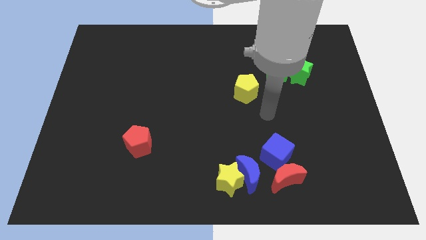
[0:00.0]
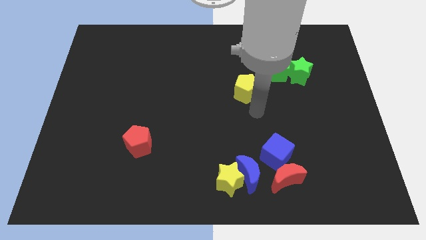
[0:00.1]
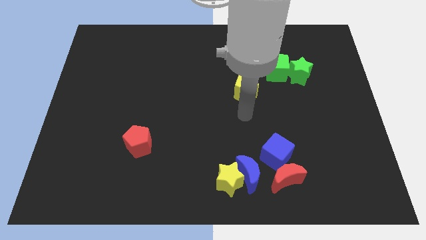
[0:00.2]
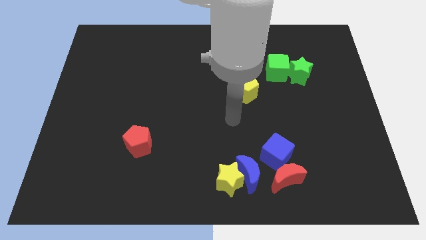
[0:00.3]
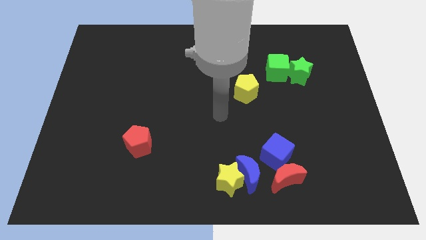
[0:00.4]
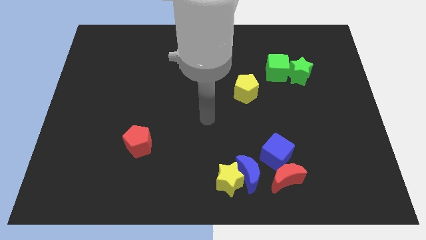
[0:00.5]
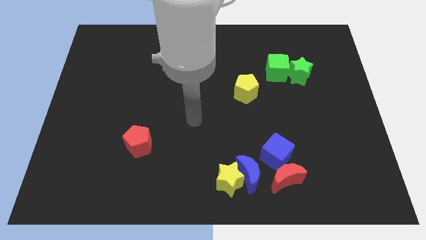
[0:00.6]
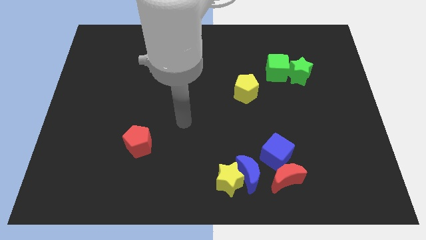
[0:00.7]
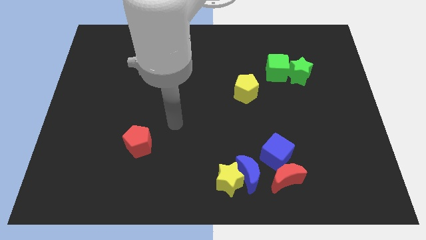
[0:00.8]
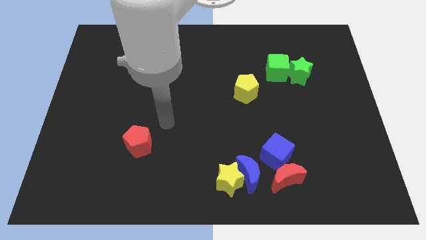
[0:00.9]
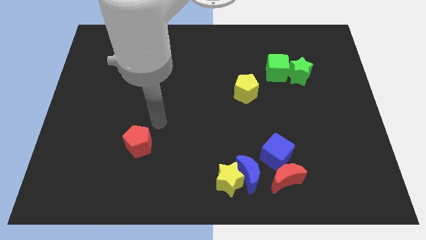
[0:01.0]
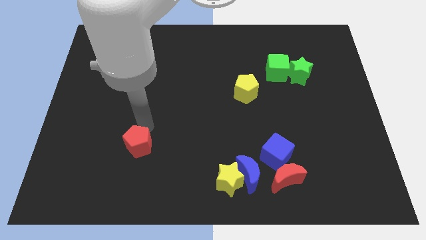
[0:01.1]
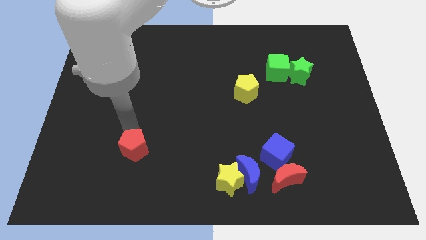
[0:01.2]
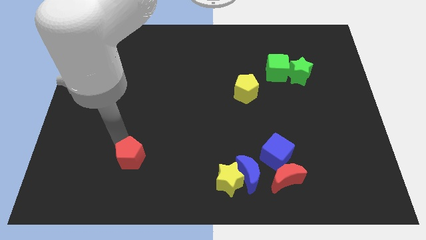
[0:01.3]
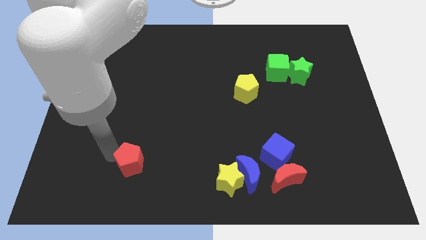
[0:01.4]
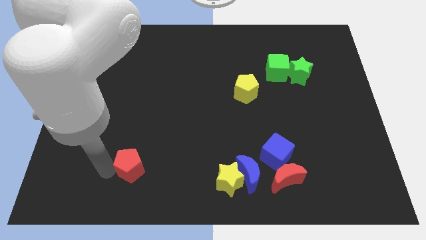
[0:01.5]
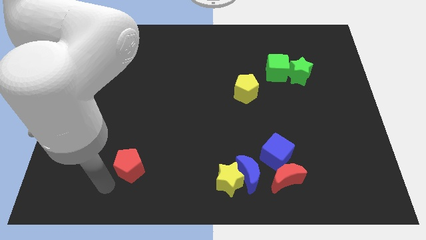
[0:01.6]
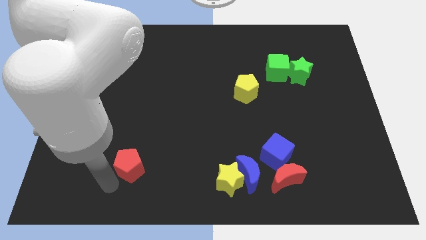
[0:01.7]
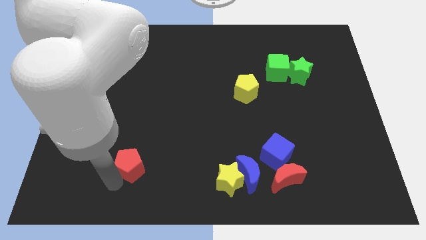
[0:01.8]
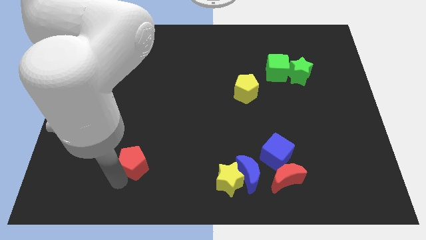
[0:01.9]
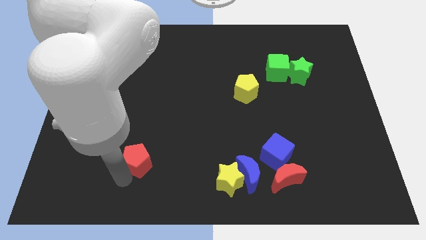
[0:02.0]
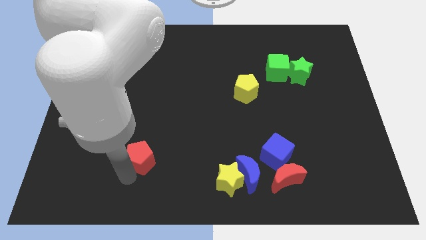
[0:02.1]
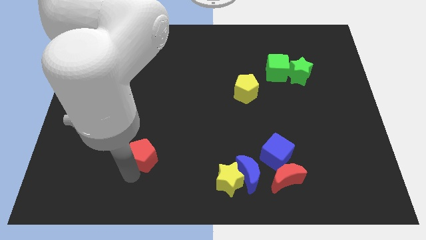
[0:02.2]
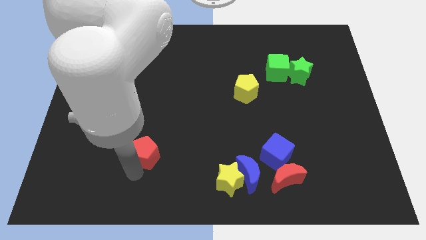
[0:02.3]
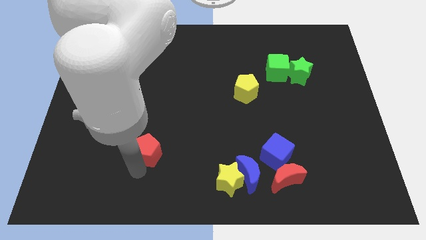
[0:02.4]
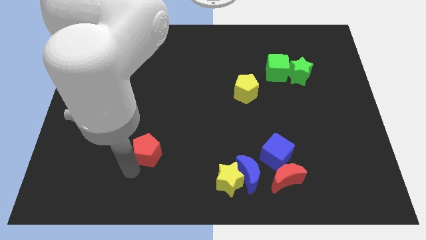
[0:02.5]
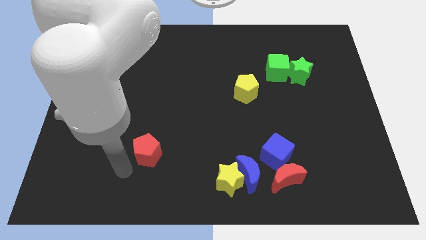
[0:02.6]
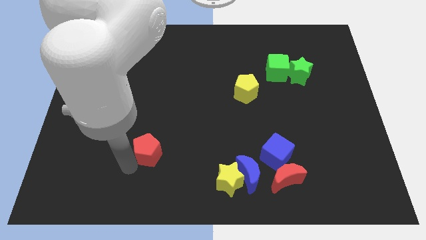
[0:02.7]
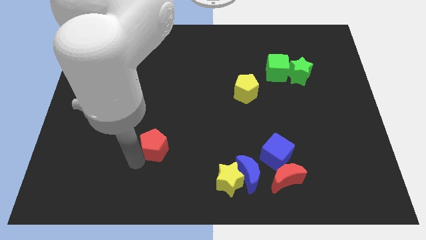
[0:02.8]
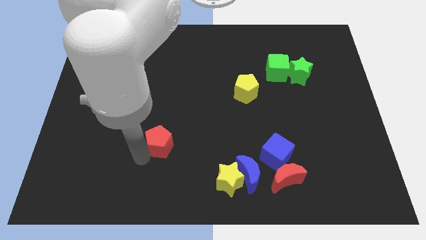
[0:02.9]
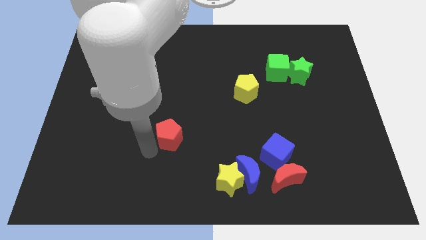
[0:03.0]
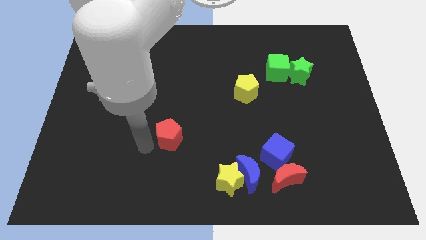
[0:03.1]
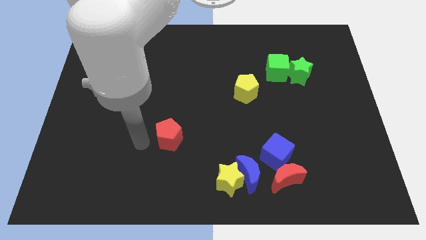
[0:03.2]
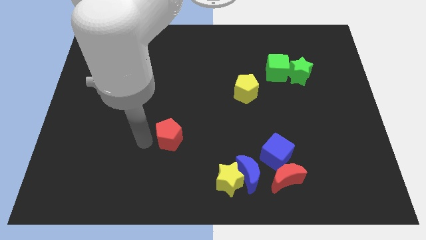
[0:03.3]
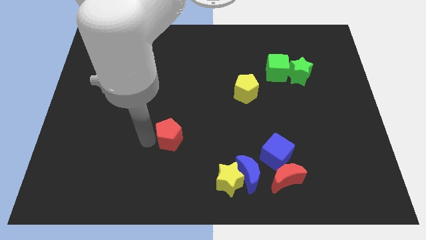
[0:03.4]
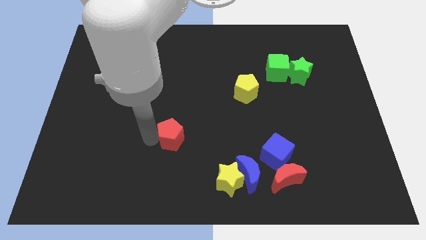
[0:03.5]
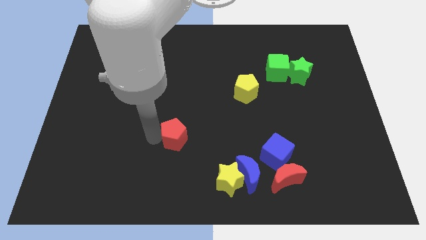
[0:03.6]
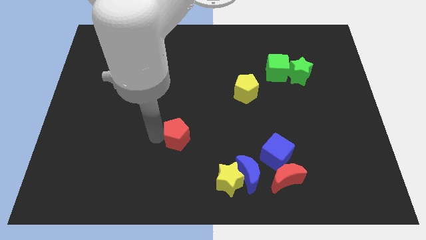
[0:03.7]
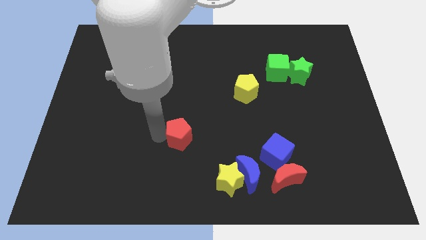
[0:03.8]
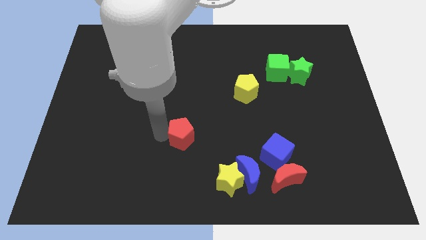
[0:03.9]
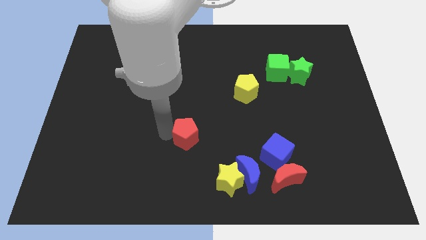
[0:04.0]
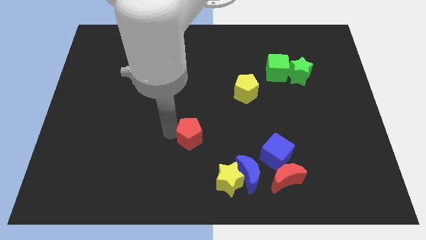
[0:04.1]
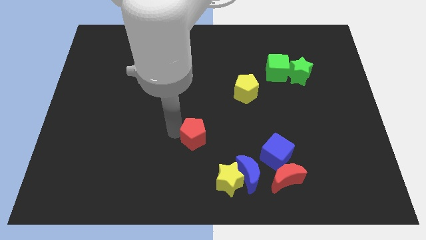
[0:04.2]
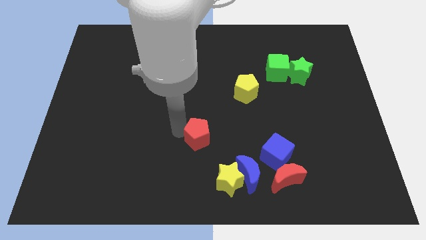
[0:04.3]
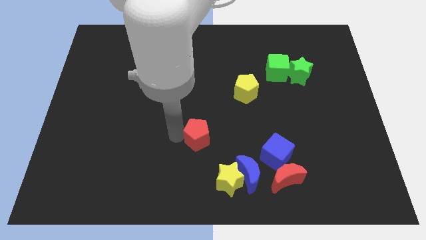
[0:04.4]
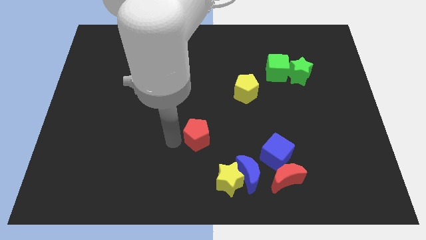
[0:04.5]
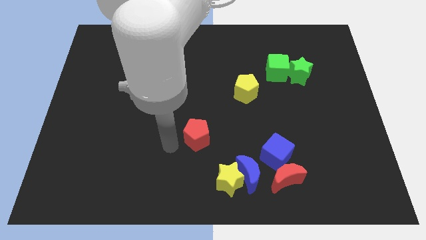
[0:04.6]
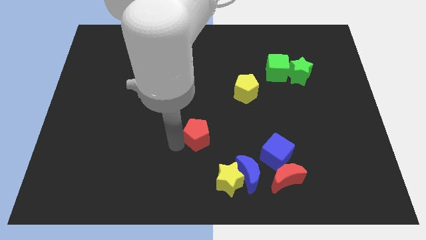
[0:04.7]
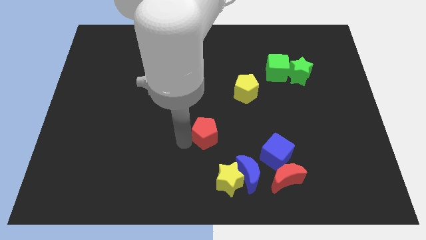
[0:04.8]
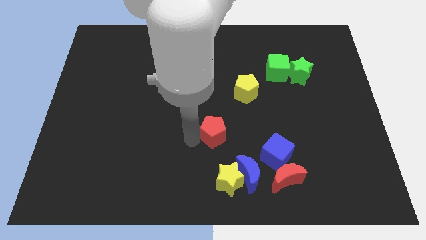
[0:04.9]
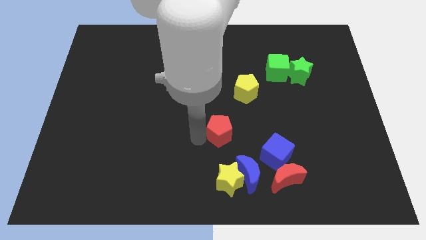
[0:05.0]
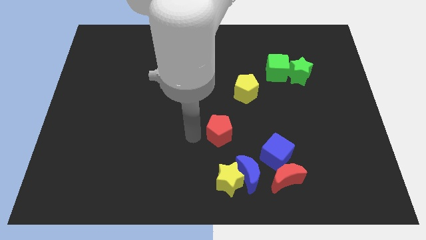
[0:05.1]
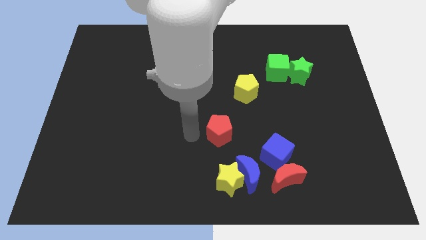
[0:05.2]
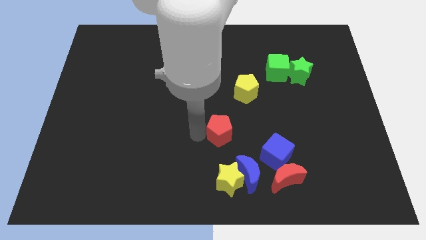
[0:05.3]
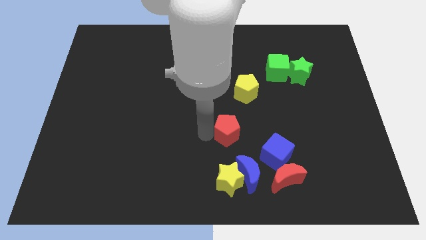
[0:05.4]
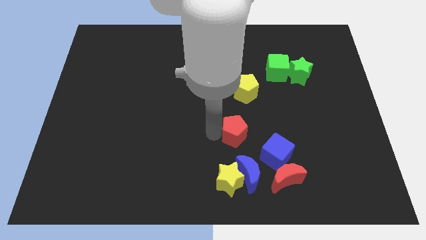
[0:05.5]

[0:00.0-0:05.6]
move the red pentagon right

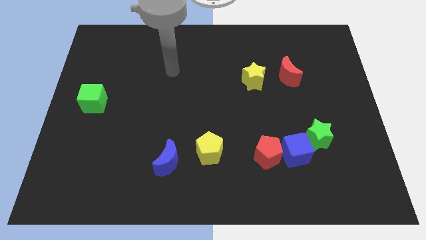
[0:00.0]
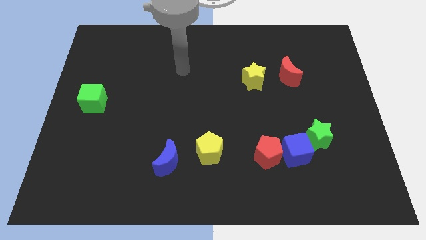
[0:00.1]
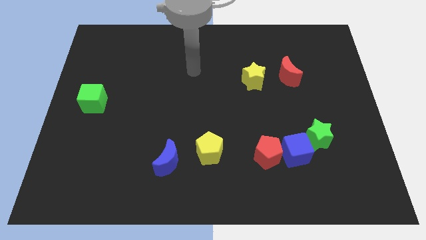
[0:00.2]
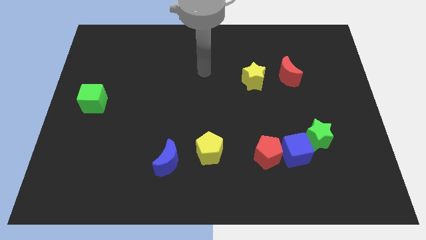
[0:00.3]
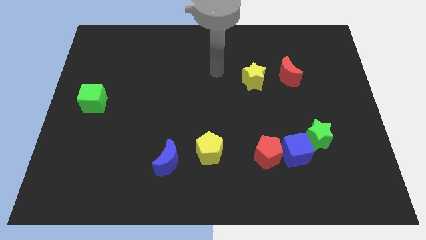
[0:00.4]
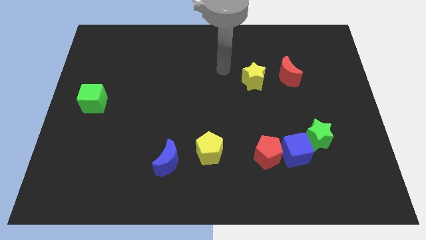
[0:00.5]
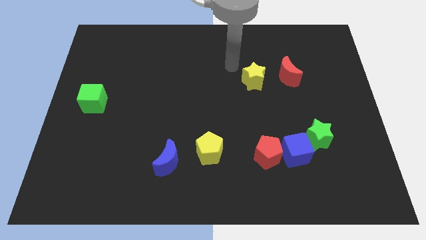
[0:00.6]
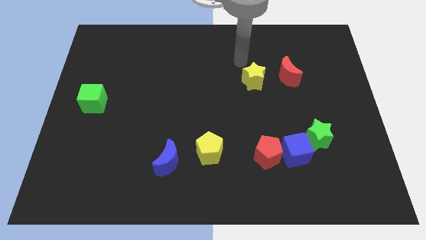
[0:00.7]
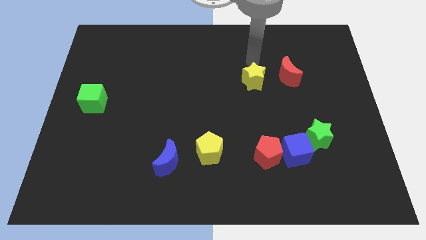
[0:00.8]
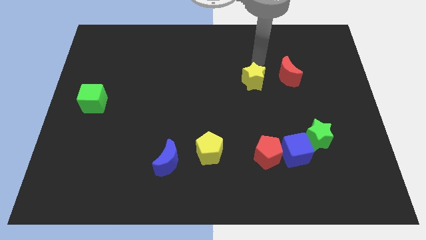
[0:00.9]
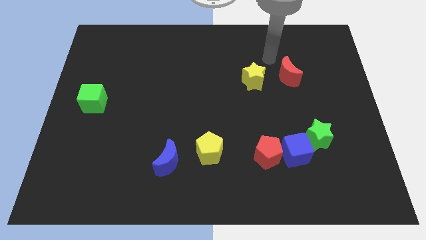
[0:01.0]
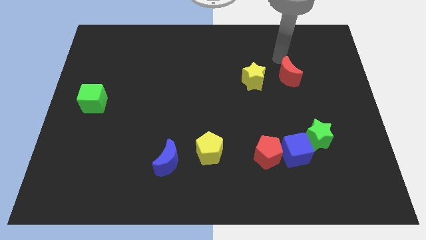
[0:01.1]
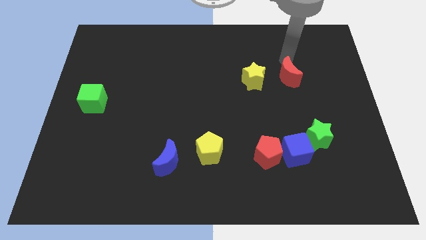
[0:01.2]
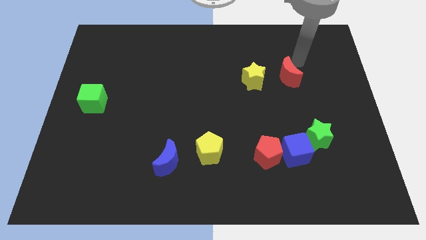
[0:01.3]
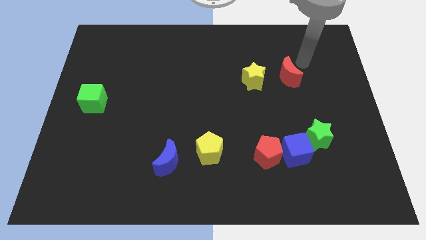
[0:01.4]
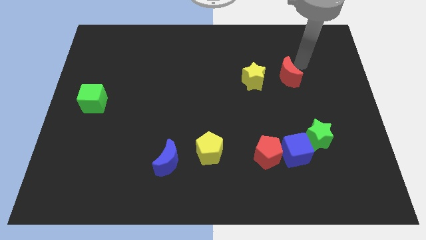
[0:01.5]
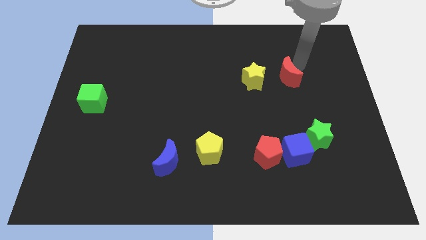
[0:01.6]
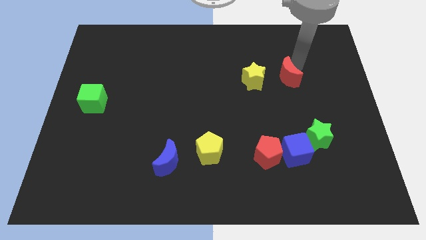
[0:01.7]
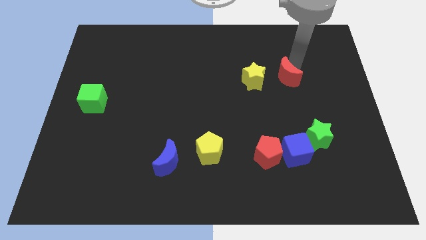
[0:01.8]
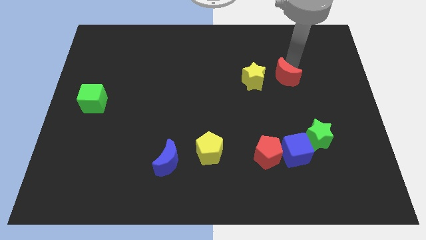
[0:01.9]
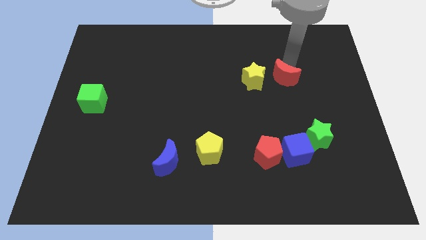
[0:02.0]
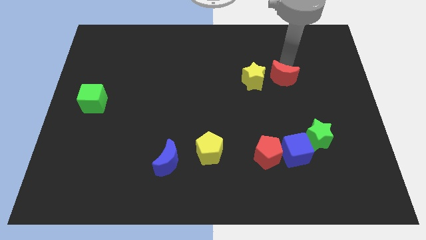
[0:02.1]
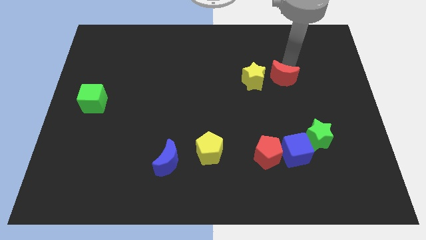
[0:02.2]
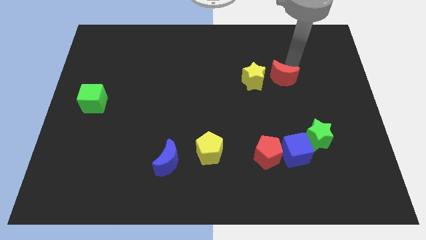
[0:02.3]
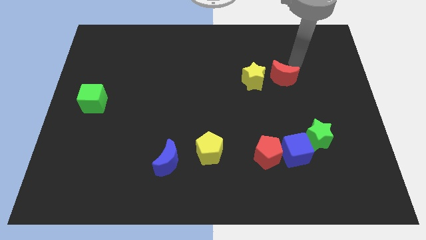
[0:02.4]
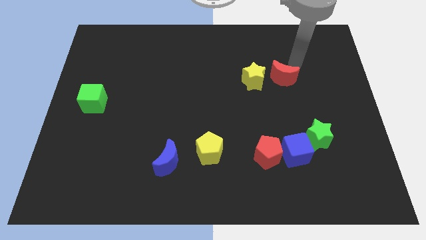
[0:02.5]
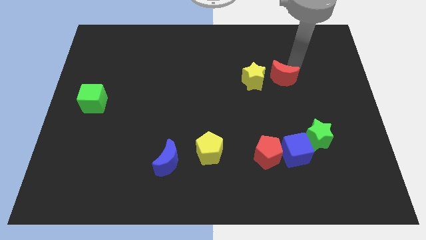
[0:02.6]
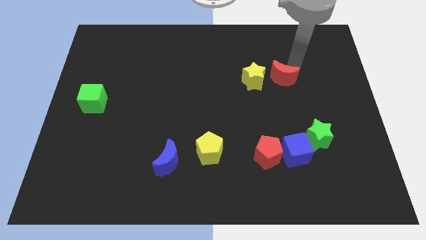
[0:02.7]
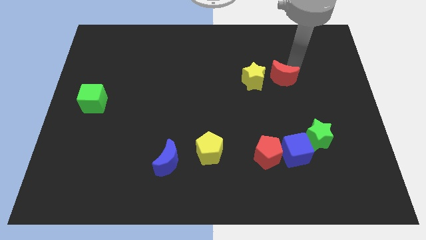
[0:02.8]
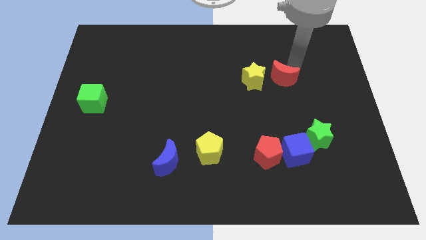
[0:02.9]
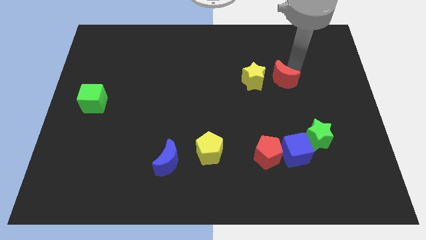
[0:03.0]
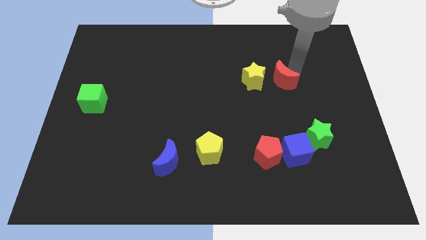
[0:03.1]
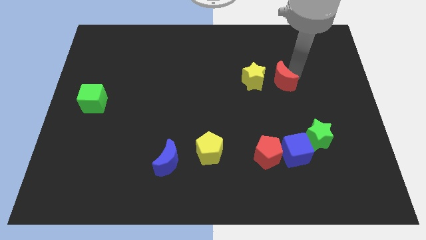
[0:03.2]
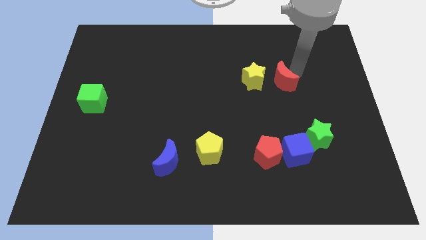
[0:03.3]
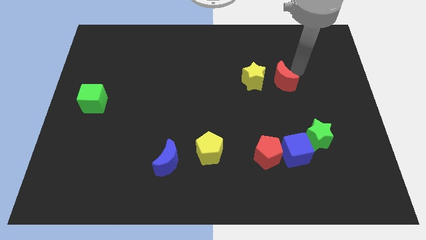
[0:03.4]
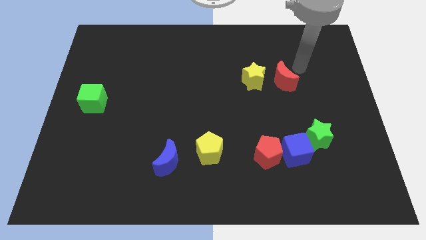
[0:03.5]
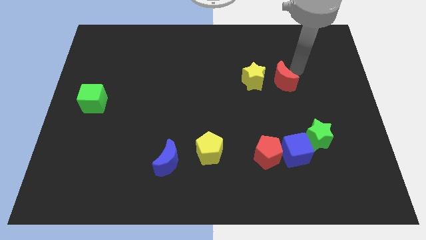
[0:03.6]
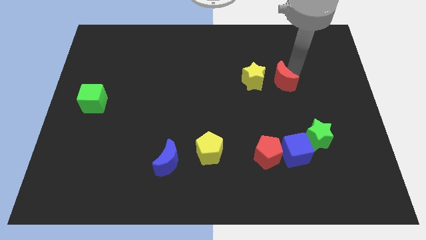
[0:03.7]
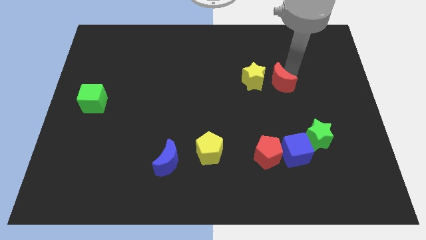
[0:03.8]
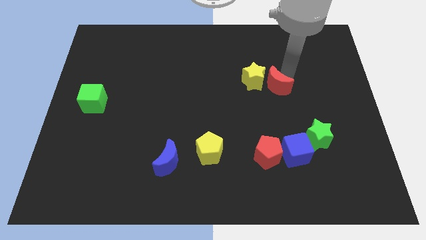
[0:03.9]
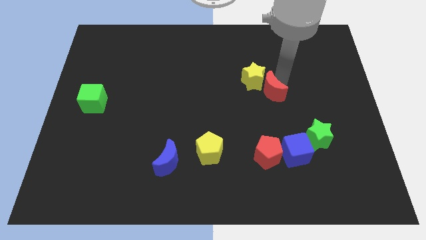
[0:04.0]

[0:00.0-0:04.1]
slide the red moon down and left slightly
